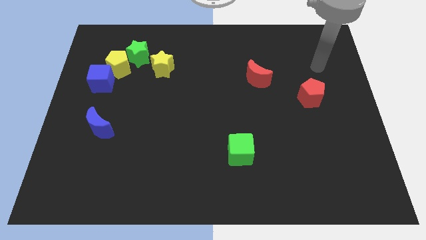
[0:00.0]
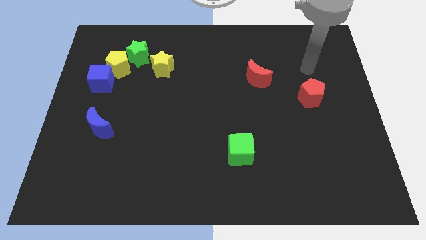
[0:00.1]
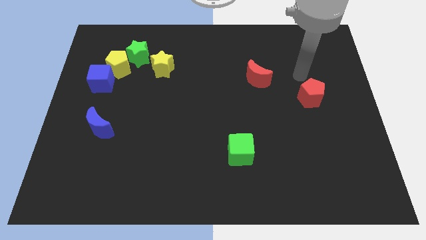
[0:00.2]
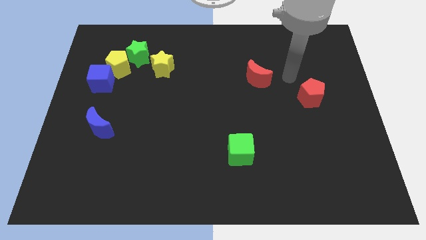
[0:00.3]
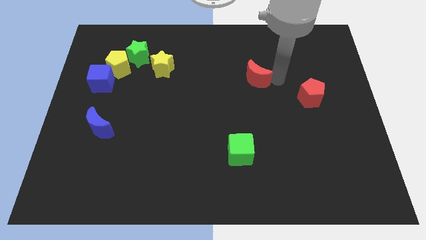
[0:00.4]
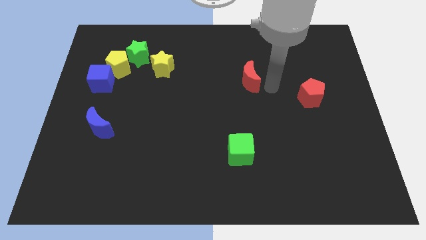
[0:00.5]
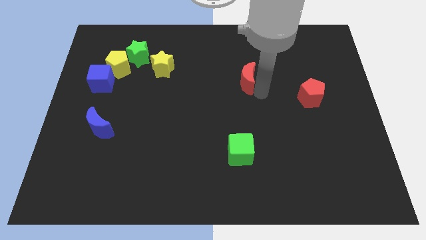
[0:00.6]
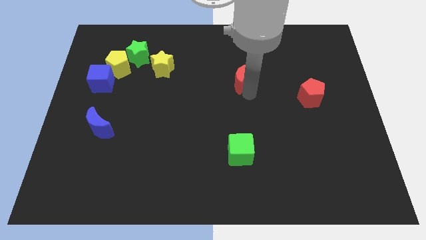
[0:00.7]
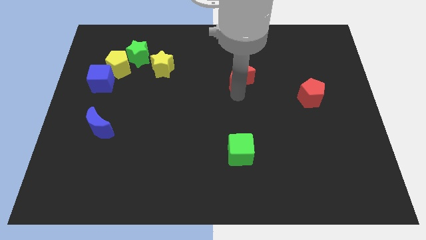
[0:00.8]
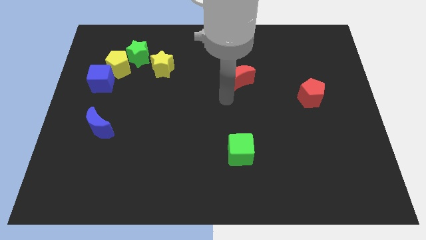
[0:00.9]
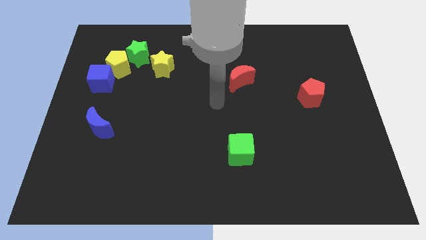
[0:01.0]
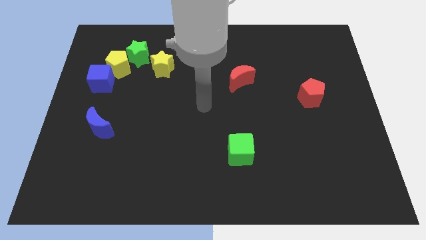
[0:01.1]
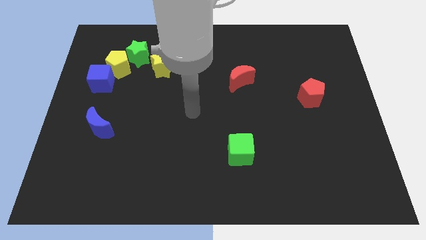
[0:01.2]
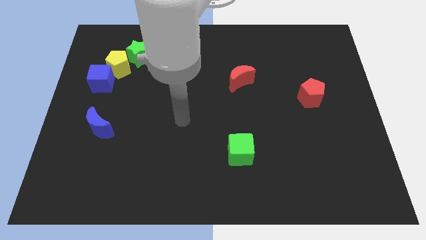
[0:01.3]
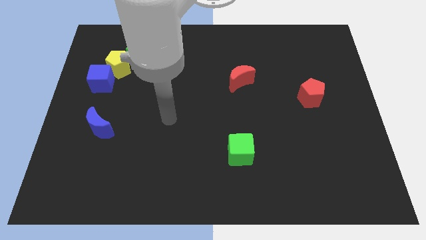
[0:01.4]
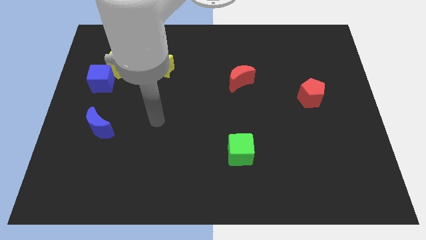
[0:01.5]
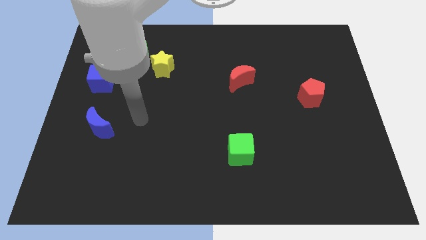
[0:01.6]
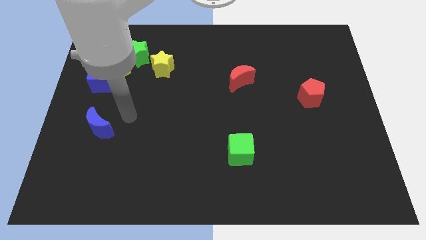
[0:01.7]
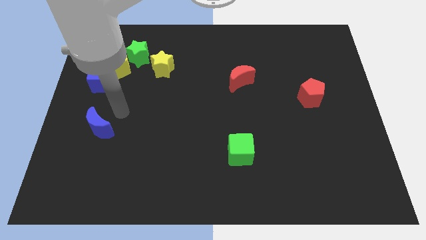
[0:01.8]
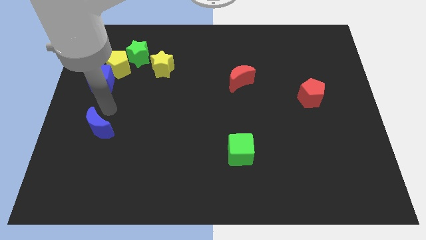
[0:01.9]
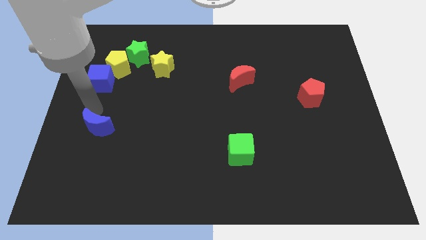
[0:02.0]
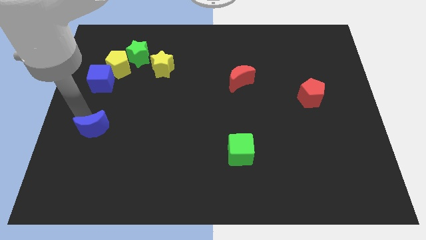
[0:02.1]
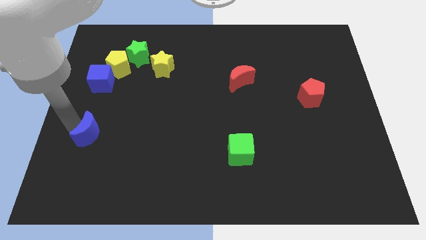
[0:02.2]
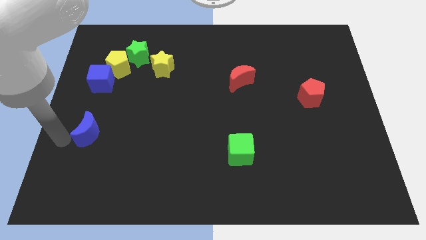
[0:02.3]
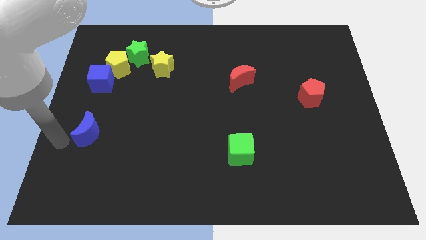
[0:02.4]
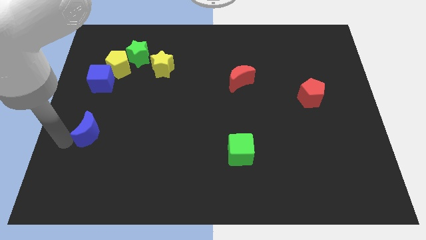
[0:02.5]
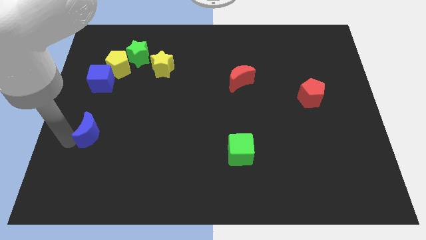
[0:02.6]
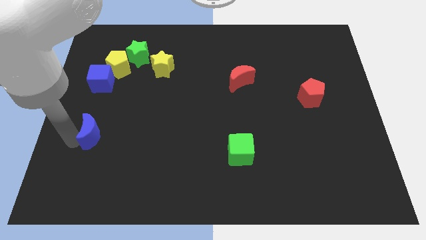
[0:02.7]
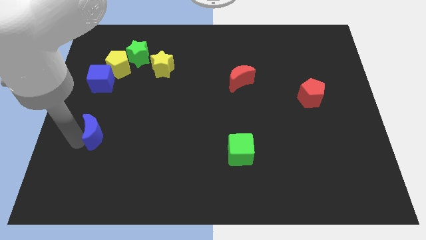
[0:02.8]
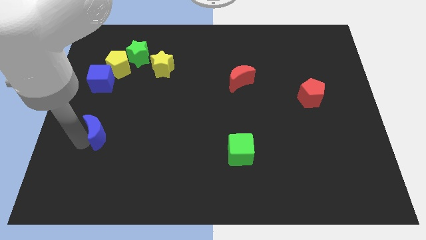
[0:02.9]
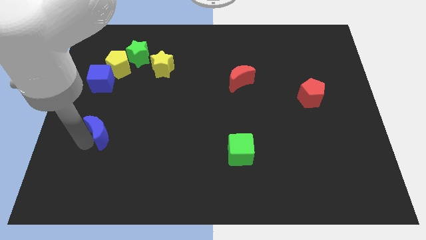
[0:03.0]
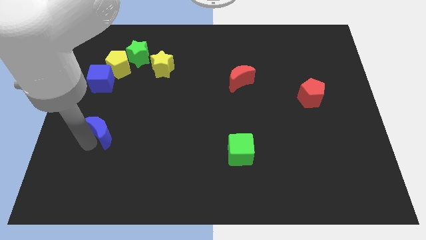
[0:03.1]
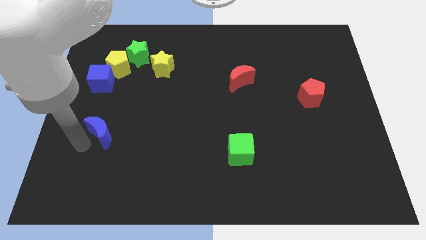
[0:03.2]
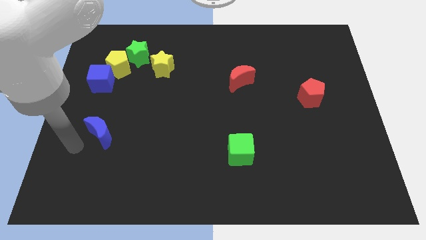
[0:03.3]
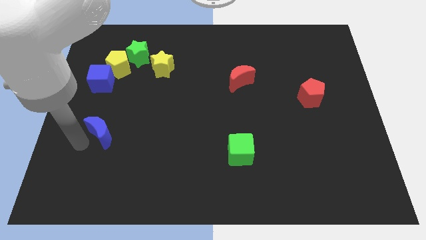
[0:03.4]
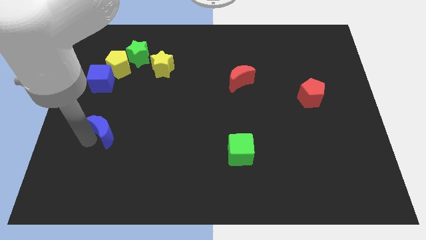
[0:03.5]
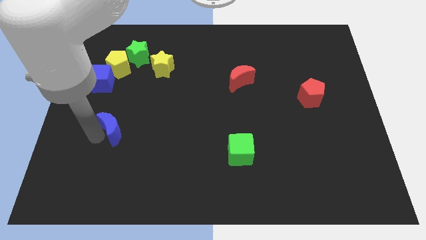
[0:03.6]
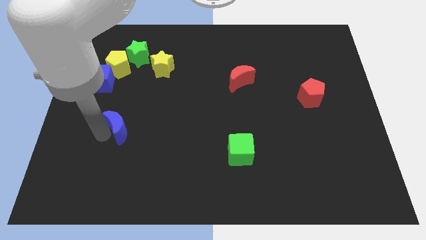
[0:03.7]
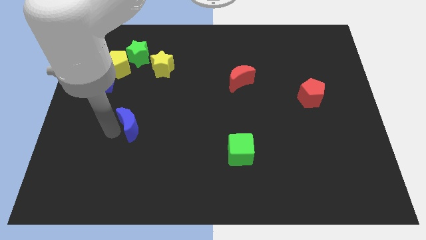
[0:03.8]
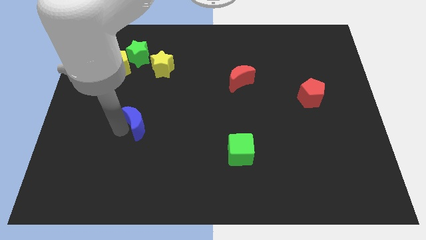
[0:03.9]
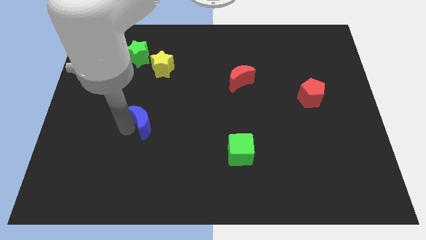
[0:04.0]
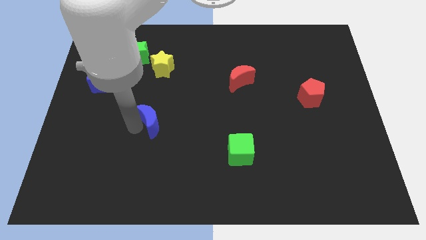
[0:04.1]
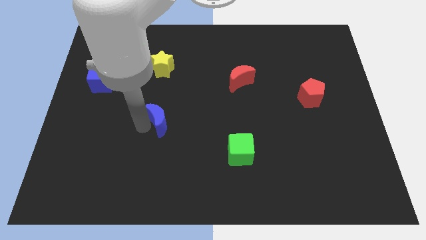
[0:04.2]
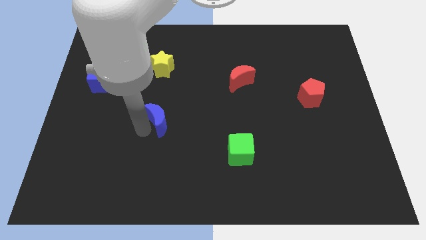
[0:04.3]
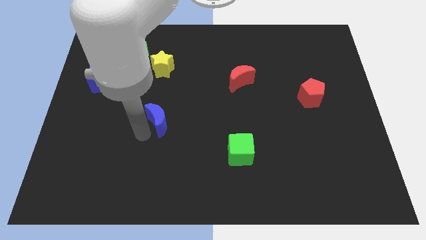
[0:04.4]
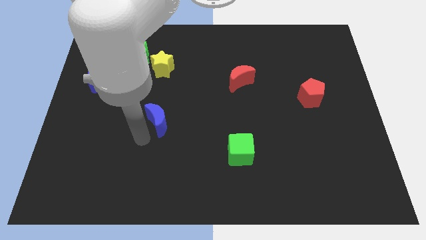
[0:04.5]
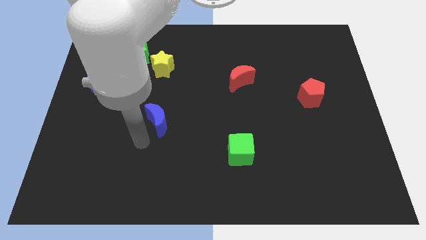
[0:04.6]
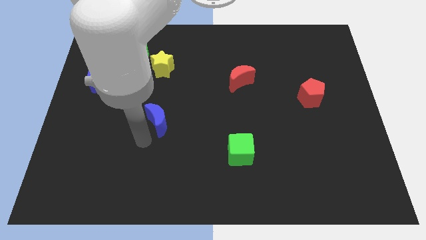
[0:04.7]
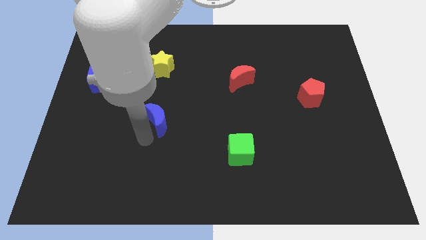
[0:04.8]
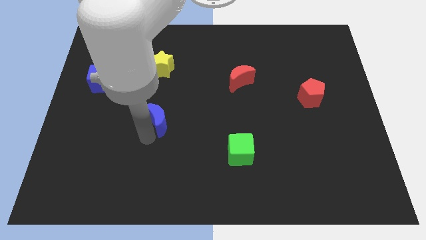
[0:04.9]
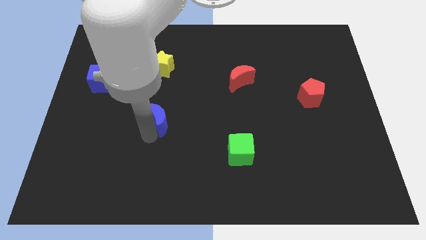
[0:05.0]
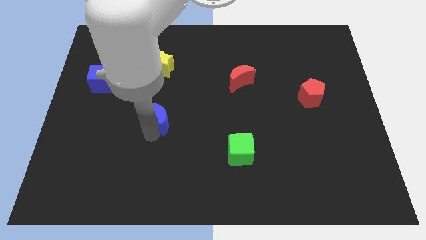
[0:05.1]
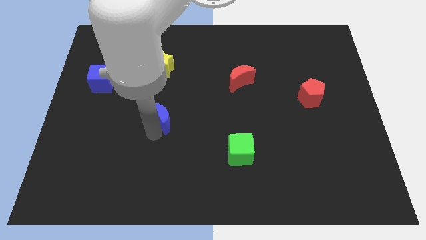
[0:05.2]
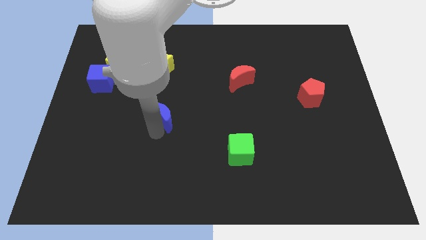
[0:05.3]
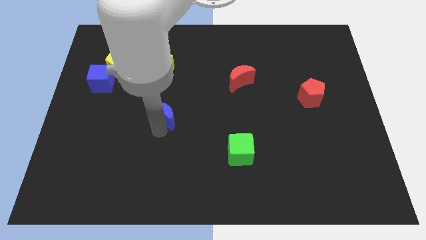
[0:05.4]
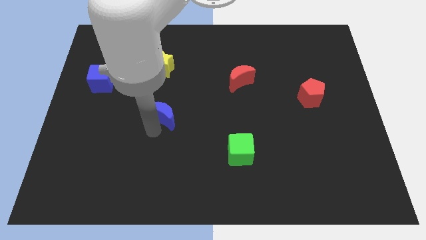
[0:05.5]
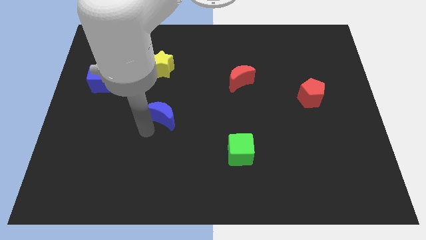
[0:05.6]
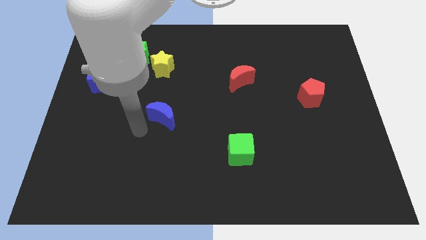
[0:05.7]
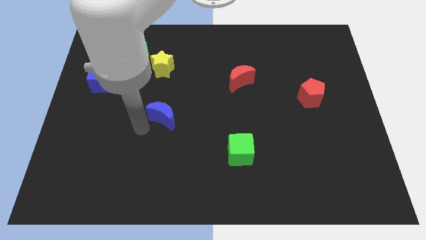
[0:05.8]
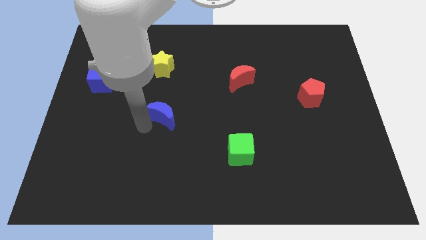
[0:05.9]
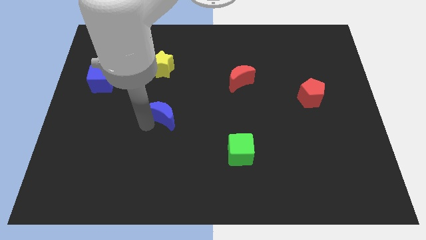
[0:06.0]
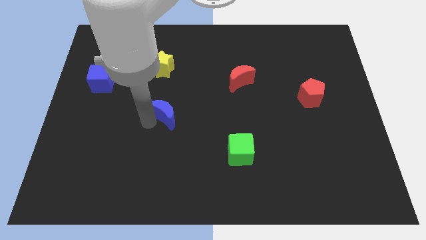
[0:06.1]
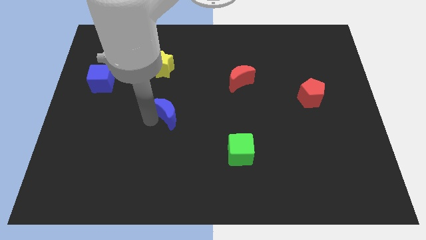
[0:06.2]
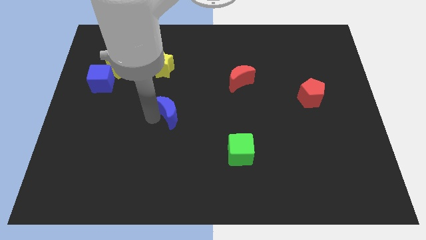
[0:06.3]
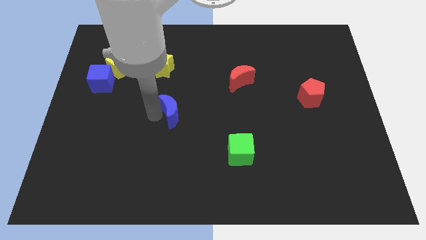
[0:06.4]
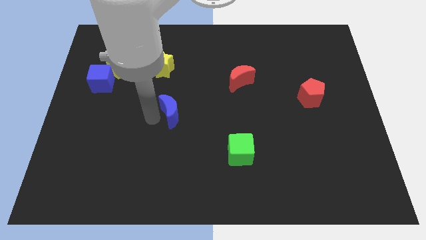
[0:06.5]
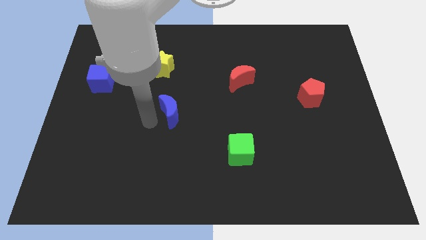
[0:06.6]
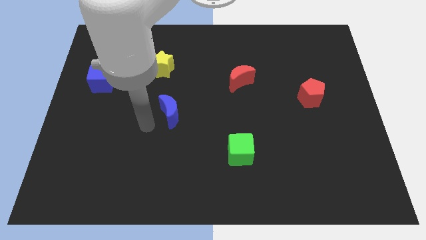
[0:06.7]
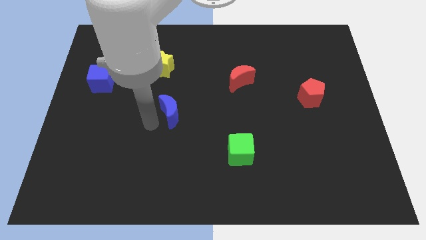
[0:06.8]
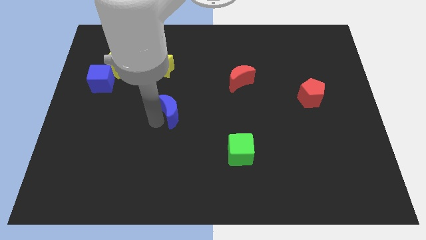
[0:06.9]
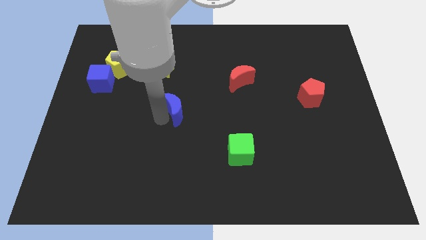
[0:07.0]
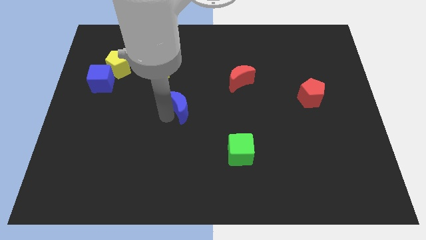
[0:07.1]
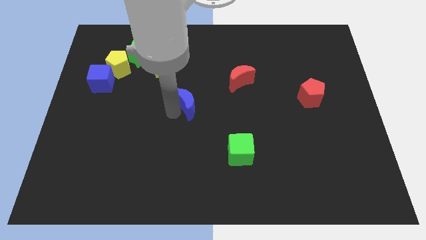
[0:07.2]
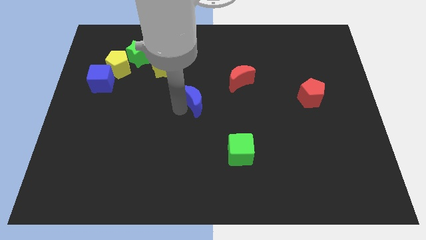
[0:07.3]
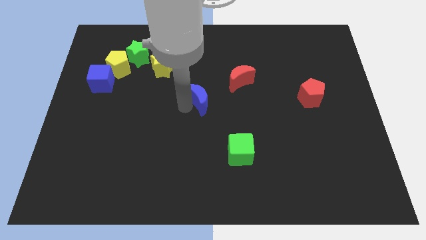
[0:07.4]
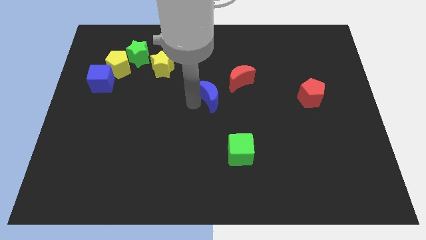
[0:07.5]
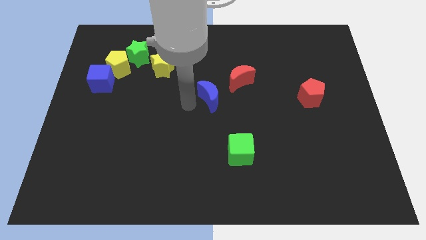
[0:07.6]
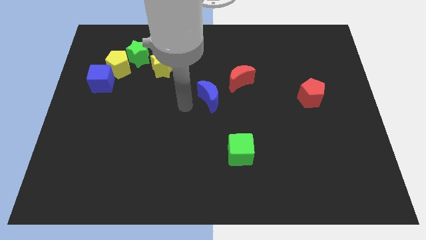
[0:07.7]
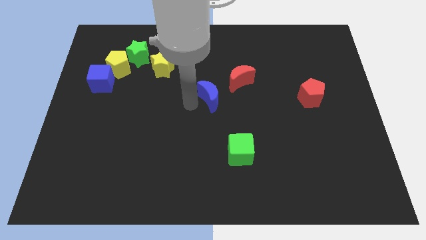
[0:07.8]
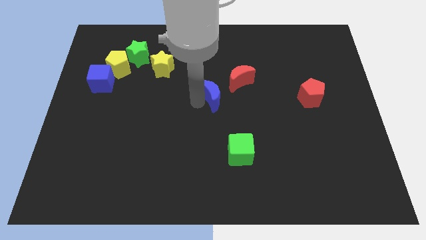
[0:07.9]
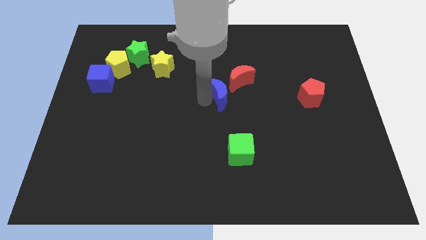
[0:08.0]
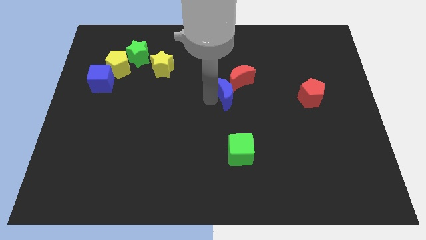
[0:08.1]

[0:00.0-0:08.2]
put the blue moon next to the red moon
